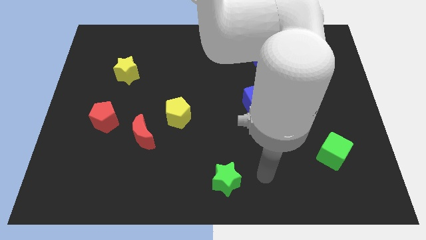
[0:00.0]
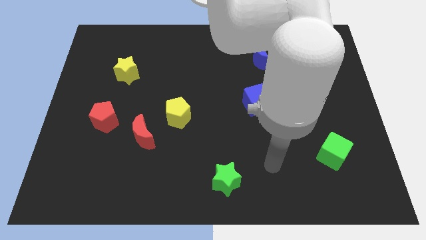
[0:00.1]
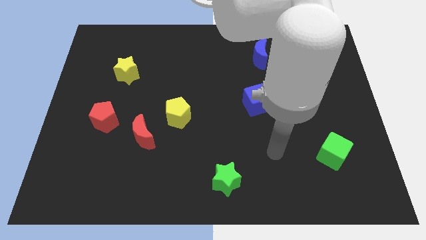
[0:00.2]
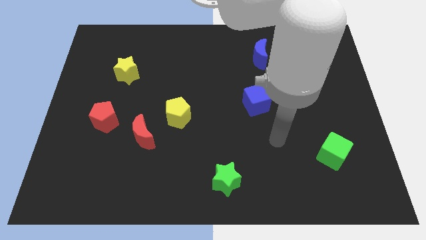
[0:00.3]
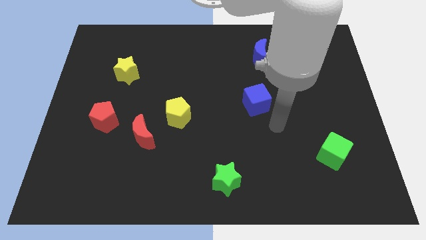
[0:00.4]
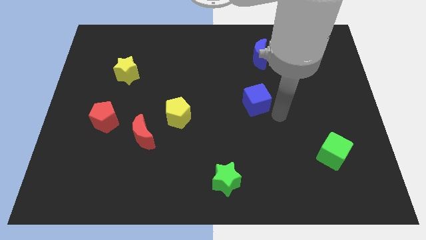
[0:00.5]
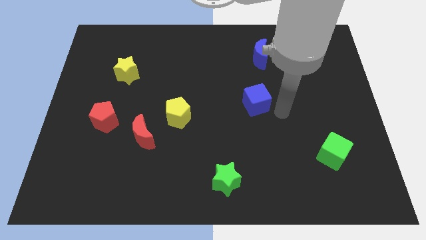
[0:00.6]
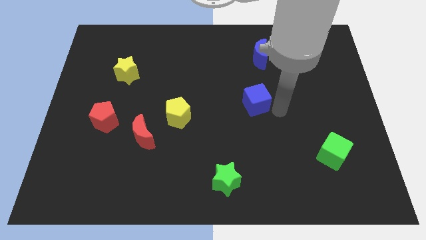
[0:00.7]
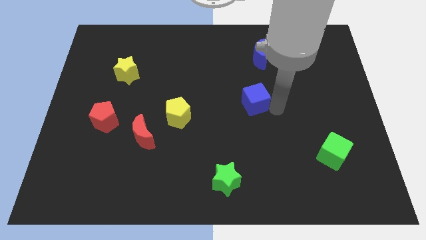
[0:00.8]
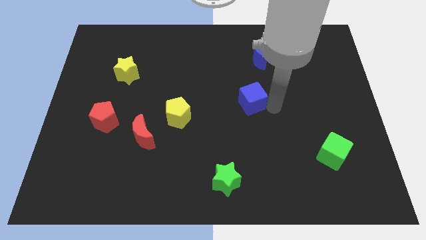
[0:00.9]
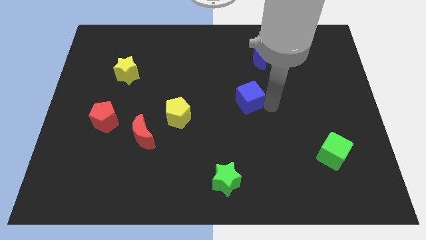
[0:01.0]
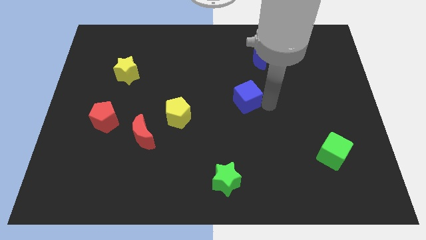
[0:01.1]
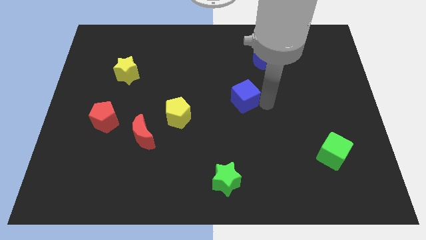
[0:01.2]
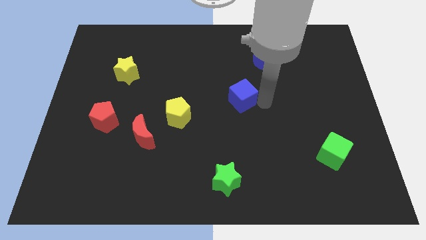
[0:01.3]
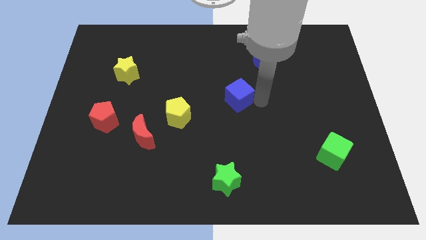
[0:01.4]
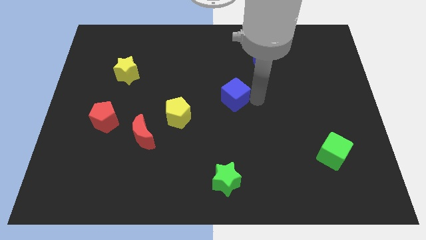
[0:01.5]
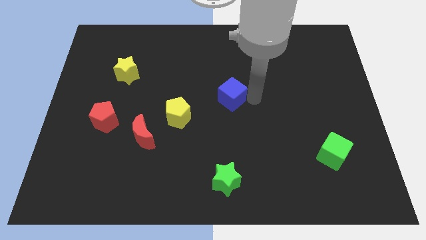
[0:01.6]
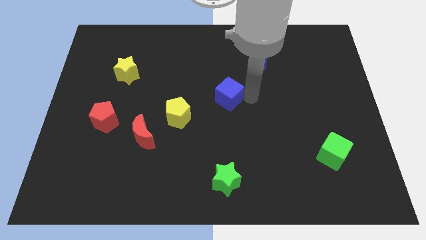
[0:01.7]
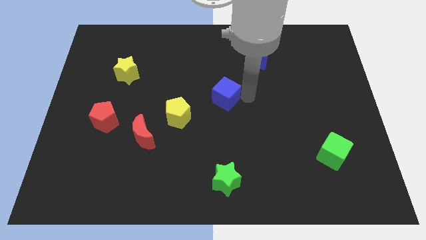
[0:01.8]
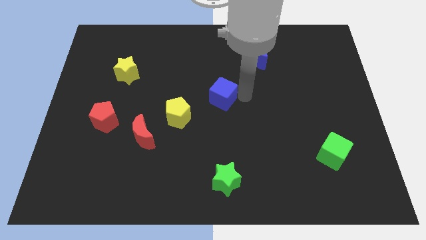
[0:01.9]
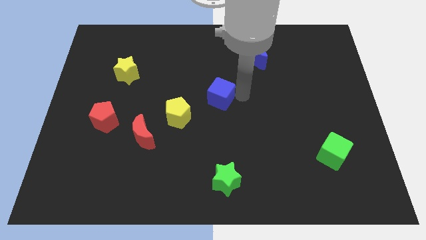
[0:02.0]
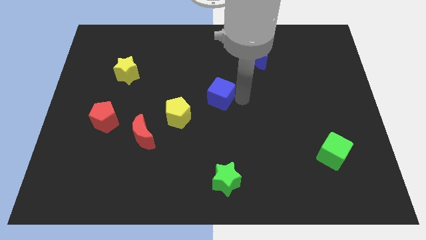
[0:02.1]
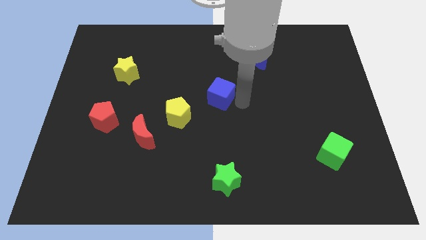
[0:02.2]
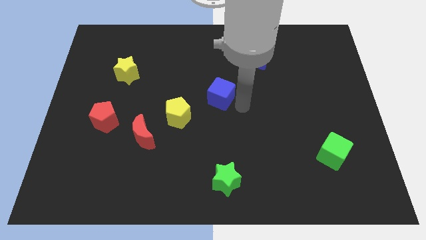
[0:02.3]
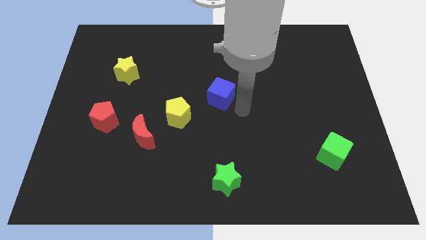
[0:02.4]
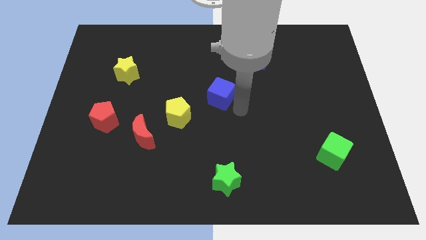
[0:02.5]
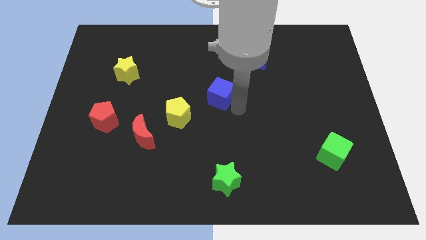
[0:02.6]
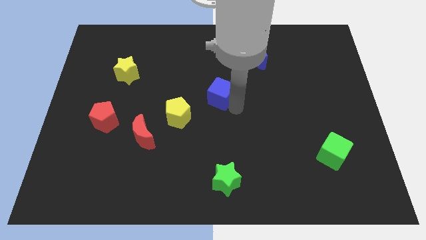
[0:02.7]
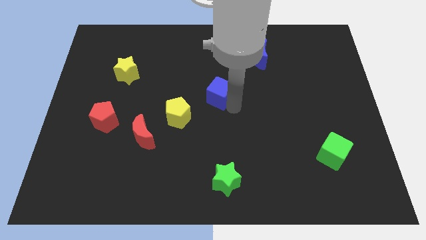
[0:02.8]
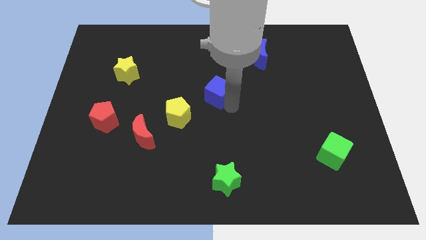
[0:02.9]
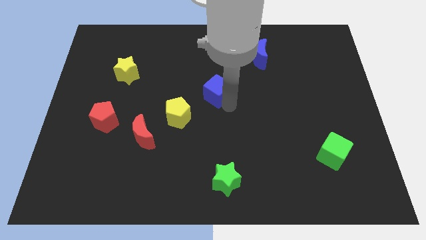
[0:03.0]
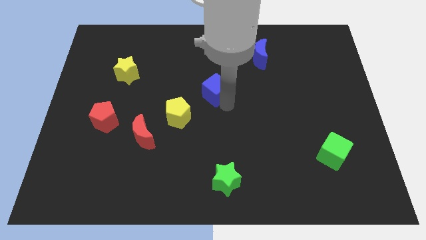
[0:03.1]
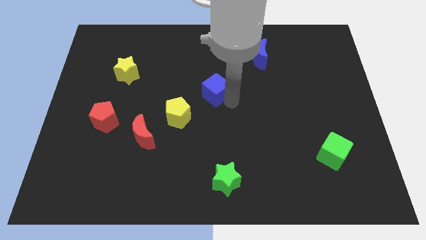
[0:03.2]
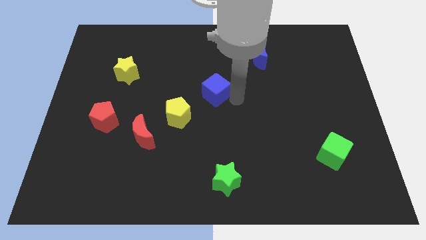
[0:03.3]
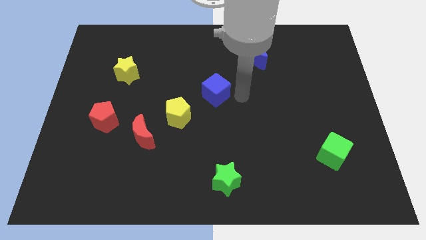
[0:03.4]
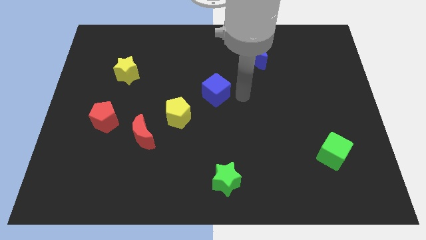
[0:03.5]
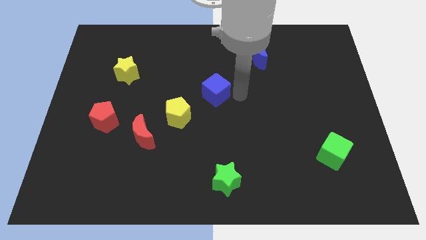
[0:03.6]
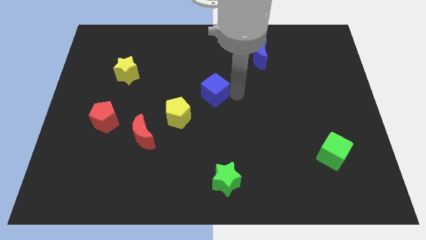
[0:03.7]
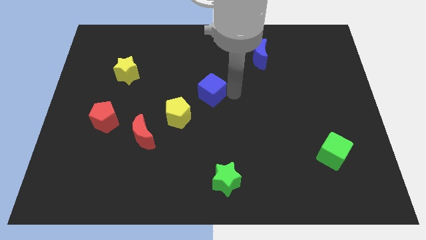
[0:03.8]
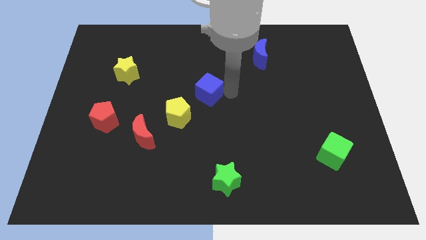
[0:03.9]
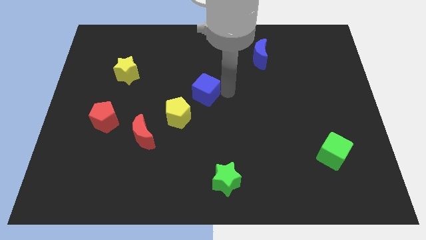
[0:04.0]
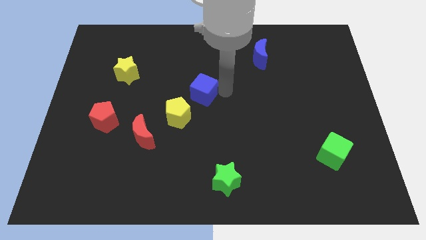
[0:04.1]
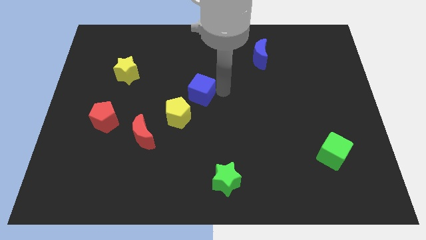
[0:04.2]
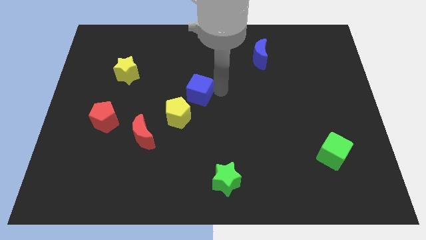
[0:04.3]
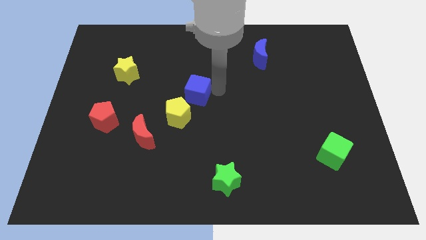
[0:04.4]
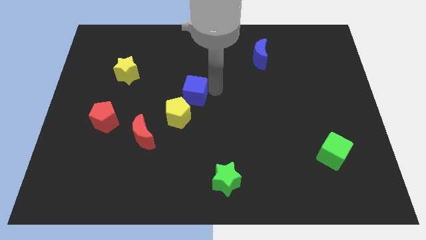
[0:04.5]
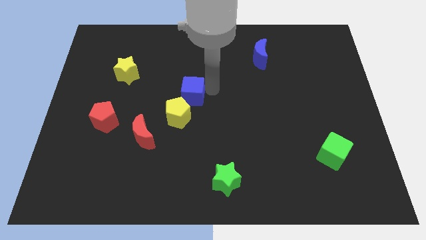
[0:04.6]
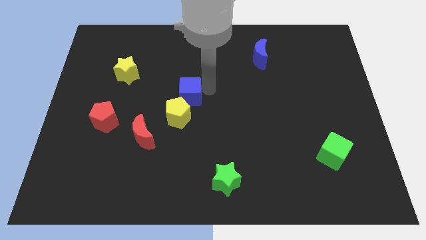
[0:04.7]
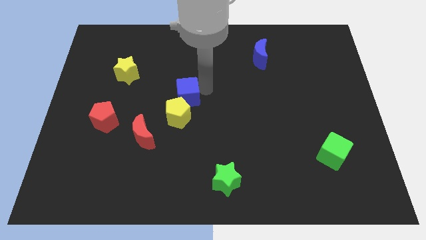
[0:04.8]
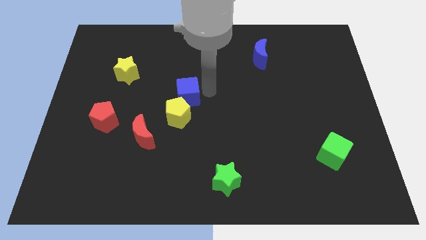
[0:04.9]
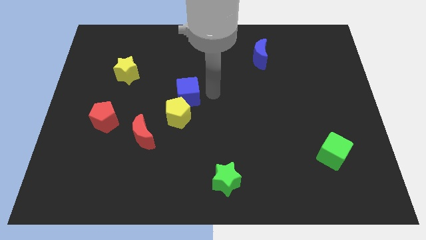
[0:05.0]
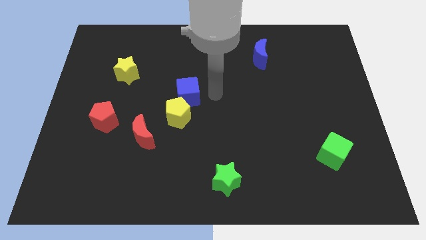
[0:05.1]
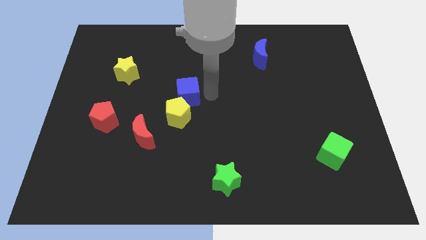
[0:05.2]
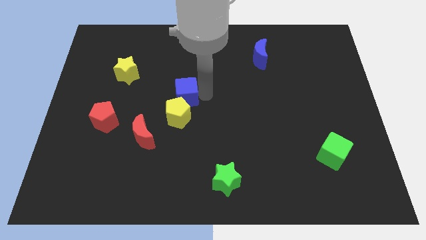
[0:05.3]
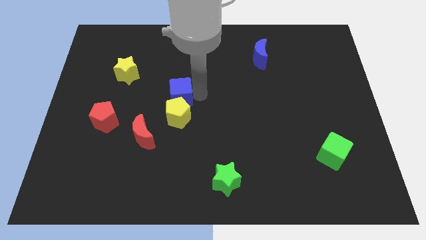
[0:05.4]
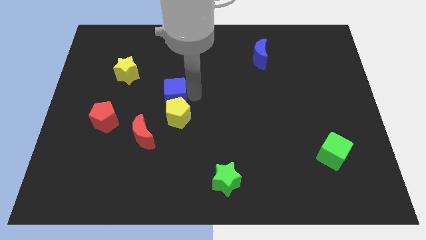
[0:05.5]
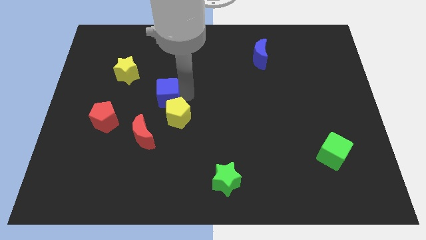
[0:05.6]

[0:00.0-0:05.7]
push the blue cube to the left

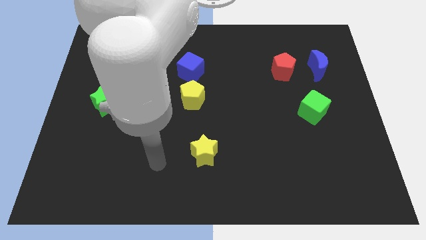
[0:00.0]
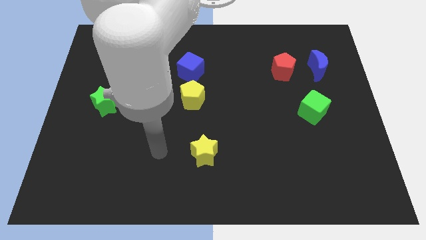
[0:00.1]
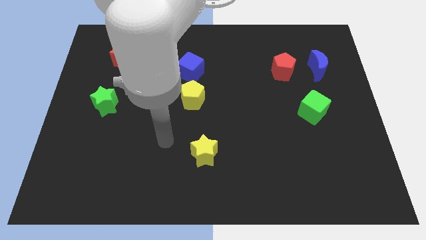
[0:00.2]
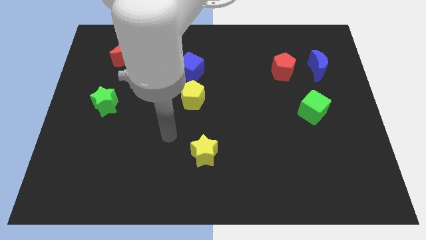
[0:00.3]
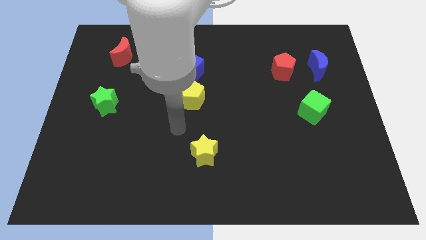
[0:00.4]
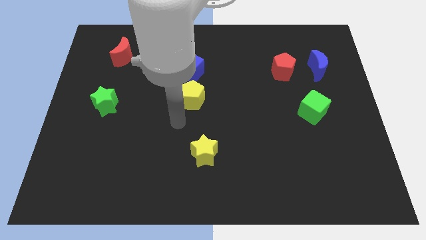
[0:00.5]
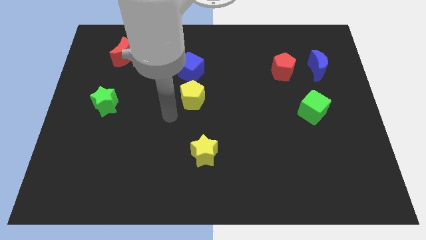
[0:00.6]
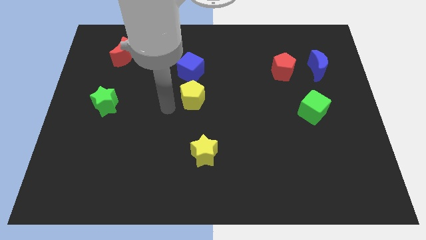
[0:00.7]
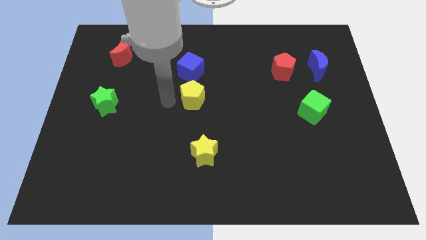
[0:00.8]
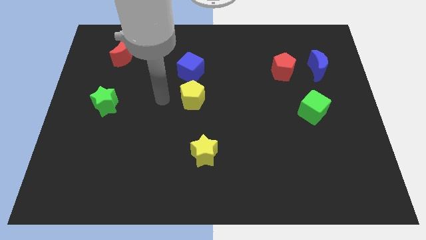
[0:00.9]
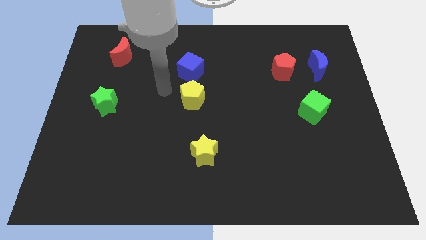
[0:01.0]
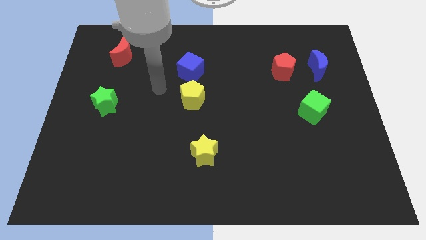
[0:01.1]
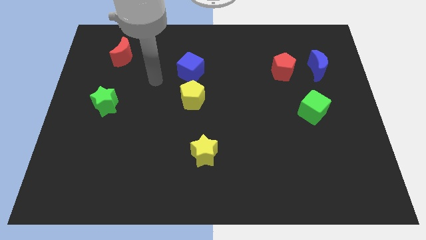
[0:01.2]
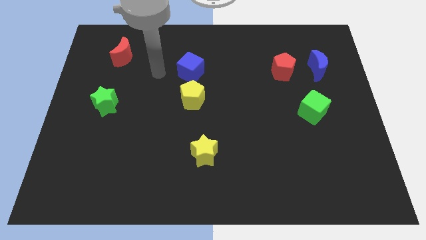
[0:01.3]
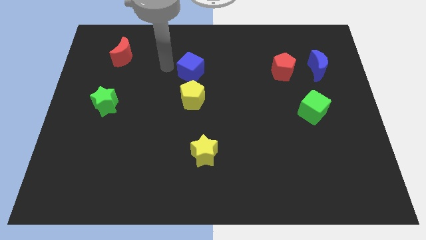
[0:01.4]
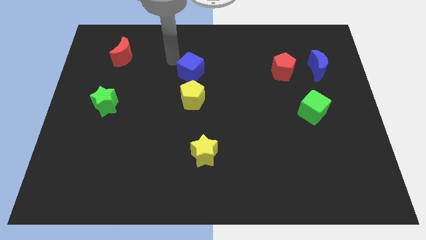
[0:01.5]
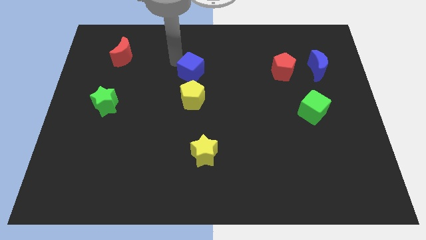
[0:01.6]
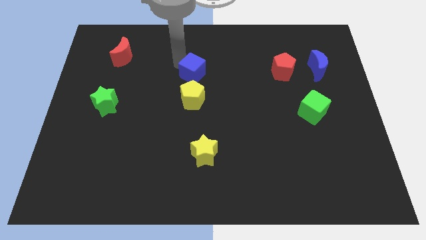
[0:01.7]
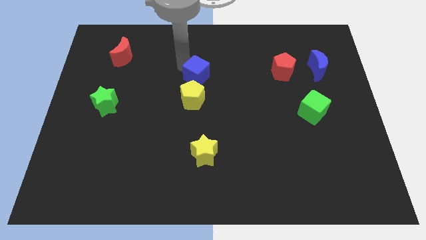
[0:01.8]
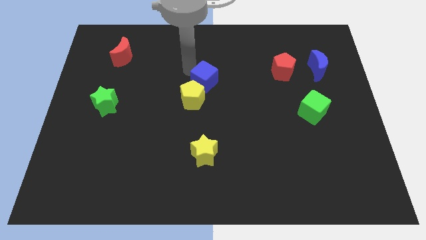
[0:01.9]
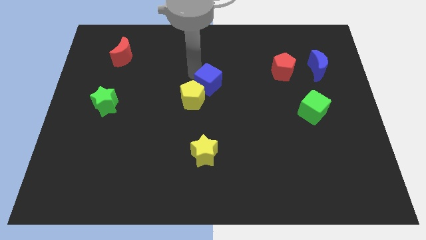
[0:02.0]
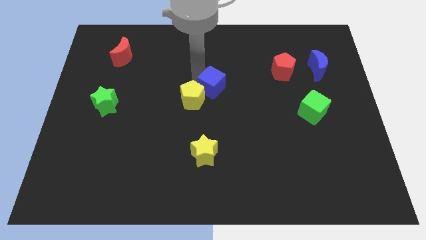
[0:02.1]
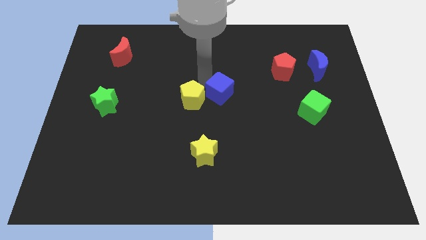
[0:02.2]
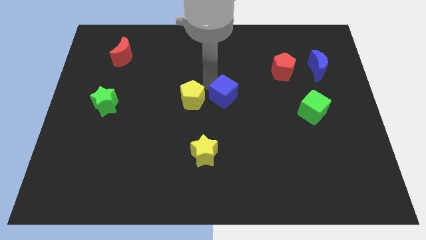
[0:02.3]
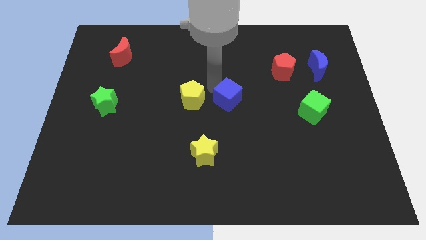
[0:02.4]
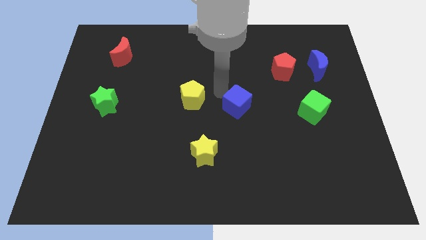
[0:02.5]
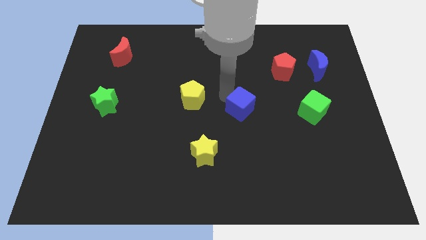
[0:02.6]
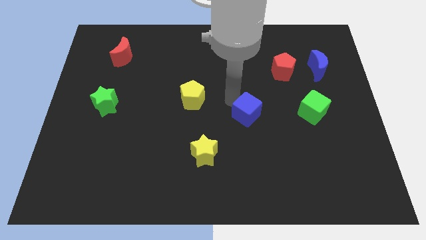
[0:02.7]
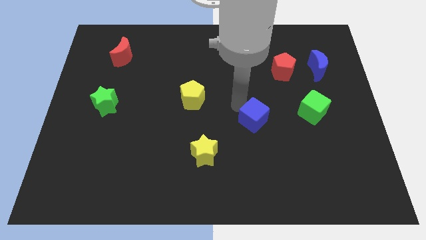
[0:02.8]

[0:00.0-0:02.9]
slide the blue cube down and to the right
